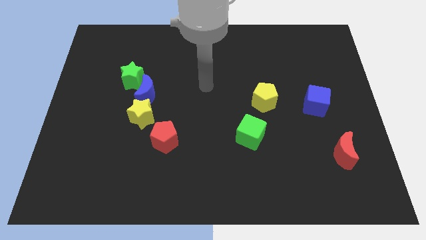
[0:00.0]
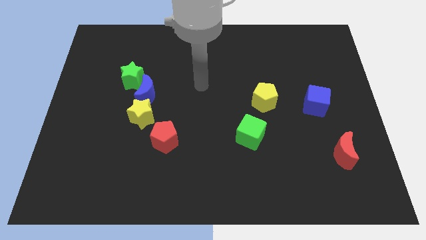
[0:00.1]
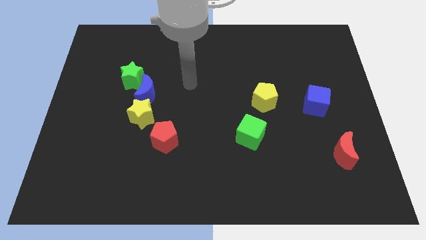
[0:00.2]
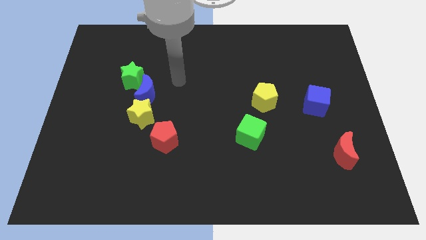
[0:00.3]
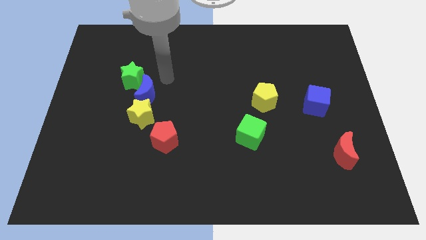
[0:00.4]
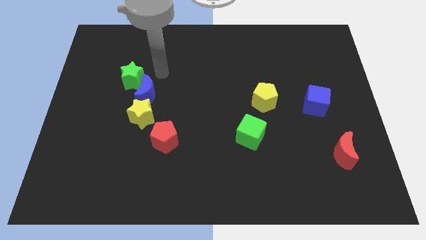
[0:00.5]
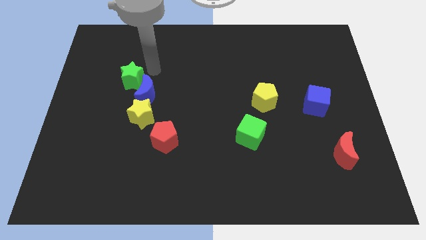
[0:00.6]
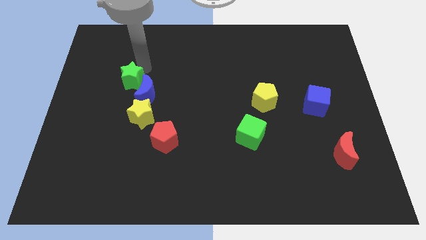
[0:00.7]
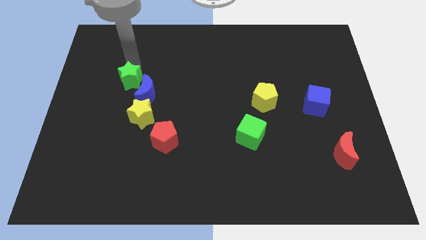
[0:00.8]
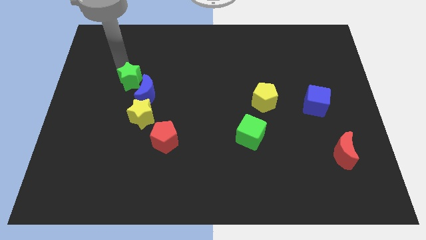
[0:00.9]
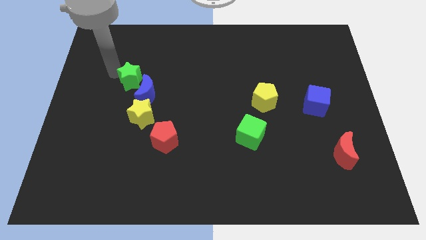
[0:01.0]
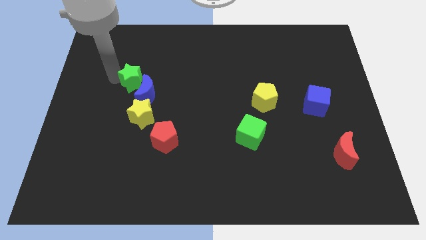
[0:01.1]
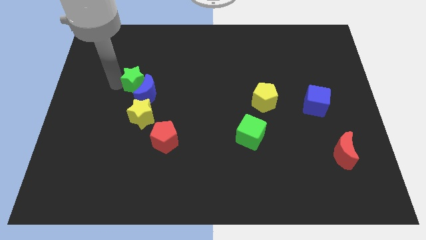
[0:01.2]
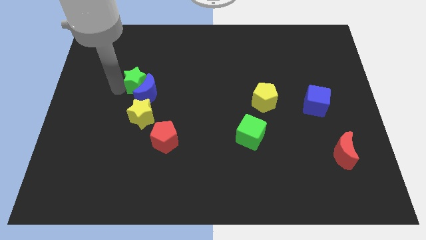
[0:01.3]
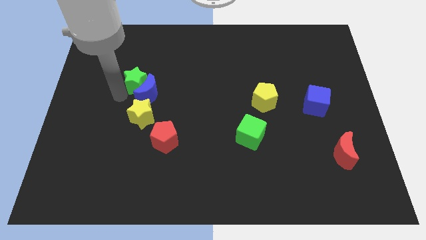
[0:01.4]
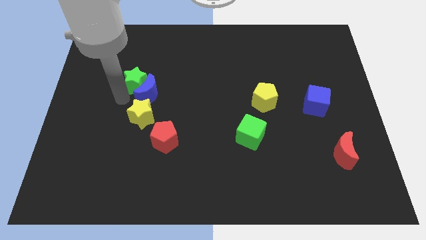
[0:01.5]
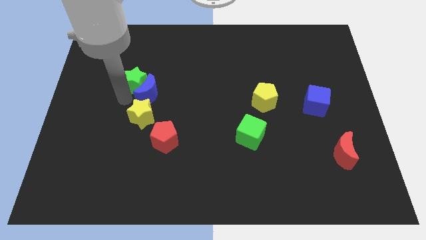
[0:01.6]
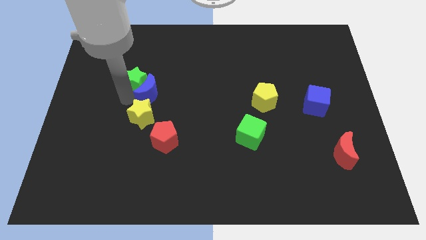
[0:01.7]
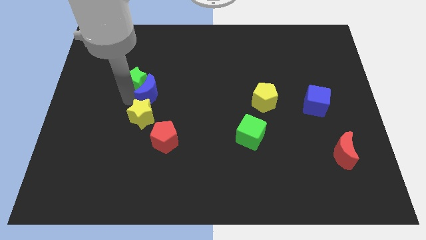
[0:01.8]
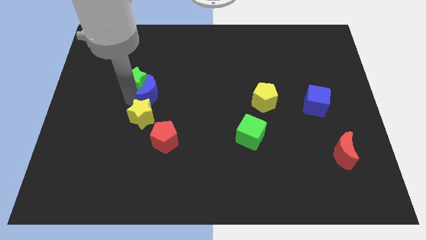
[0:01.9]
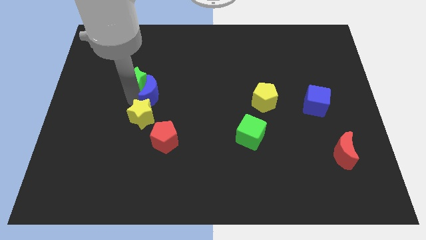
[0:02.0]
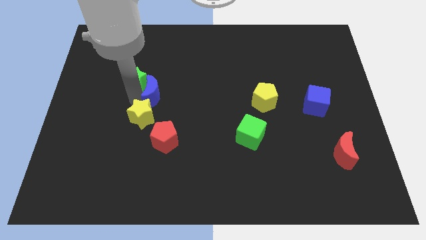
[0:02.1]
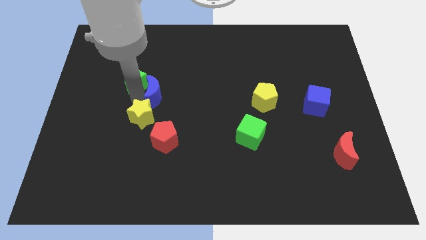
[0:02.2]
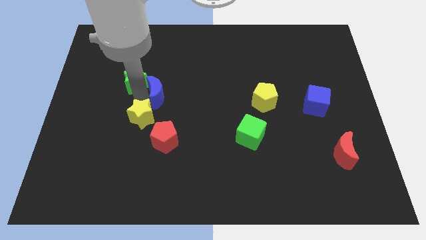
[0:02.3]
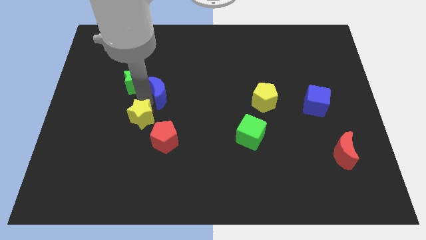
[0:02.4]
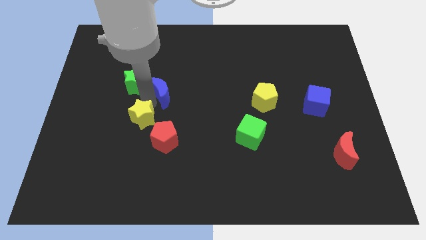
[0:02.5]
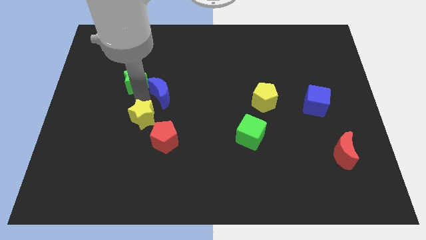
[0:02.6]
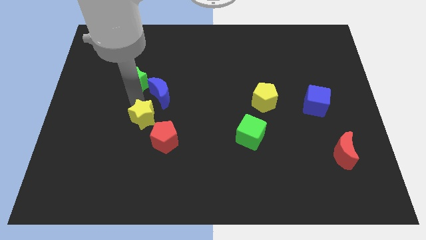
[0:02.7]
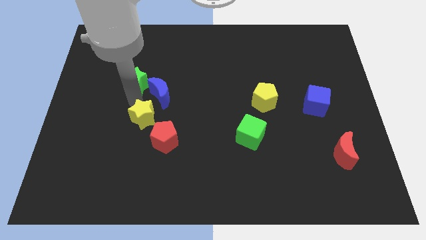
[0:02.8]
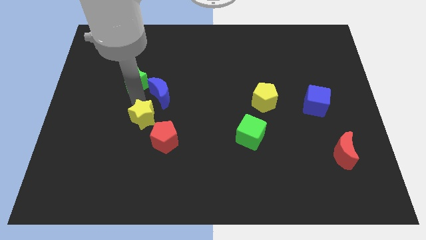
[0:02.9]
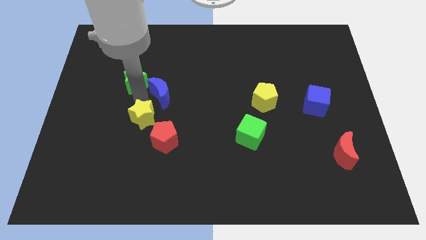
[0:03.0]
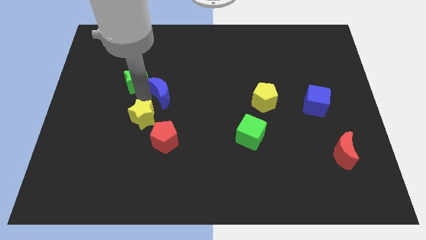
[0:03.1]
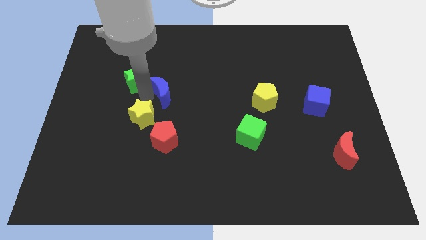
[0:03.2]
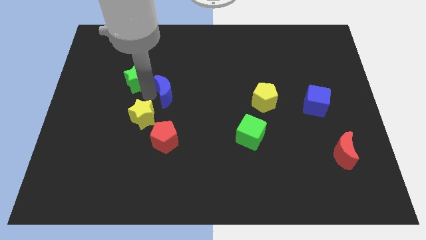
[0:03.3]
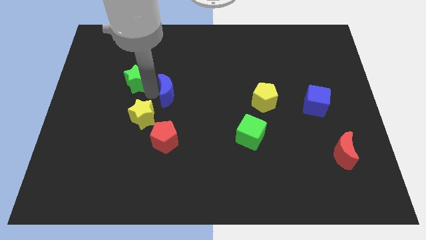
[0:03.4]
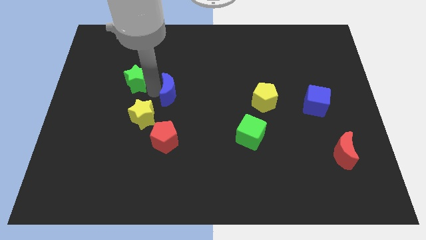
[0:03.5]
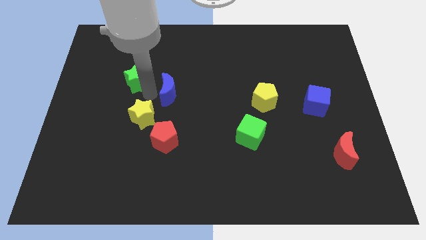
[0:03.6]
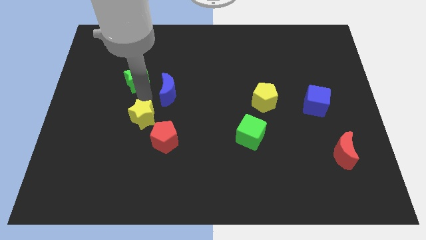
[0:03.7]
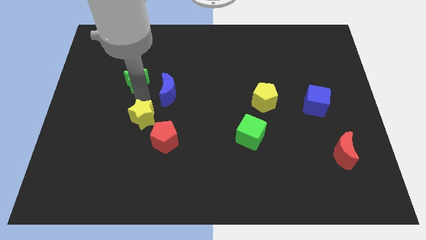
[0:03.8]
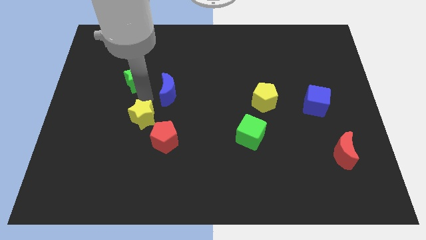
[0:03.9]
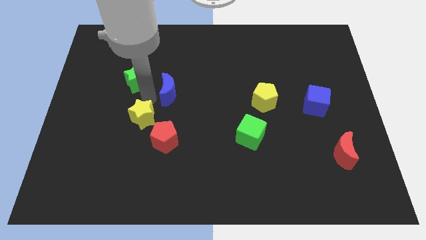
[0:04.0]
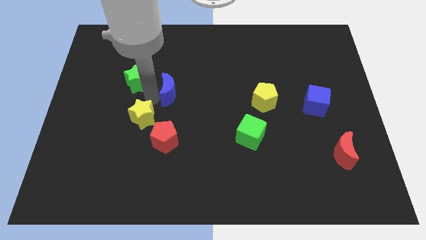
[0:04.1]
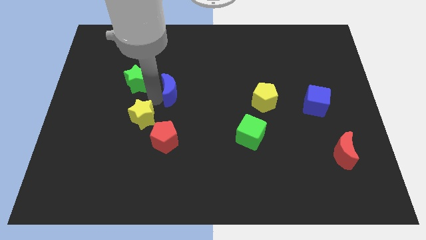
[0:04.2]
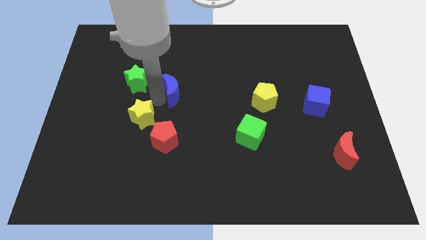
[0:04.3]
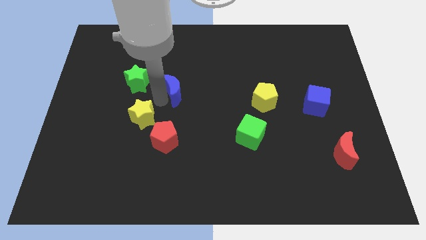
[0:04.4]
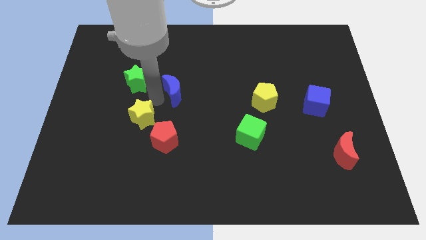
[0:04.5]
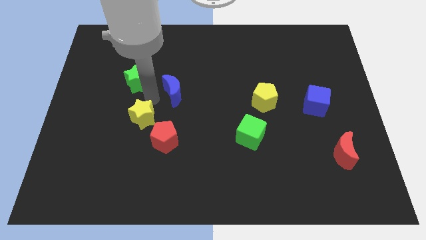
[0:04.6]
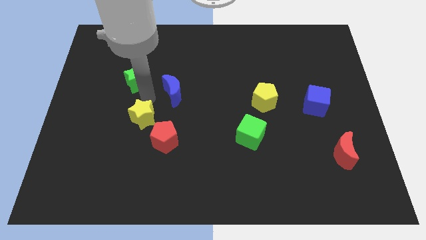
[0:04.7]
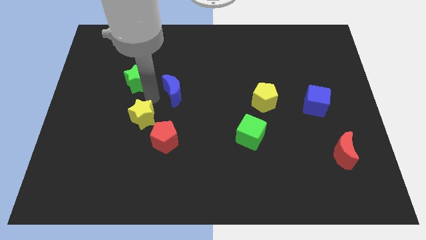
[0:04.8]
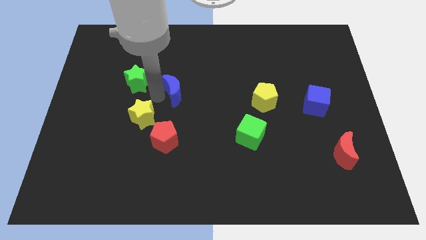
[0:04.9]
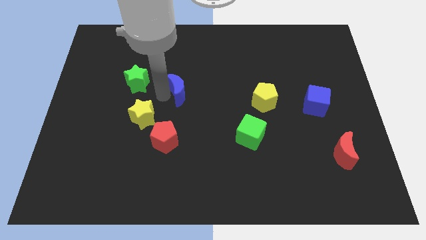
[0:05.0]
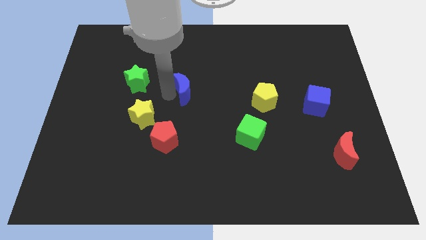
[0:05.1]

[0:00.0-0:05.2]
separate the blue moon from the yellow star and green star

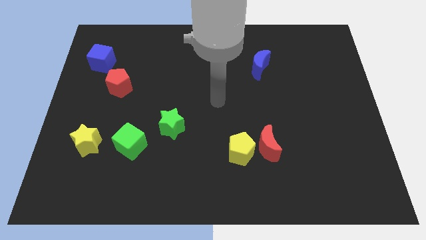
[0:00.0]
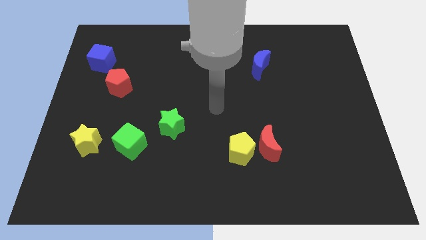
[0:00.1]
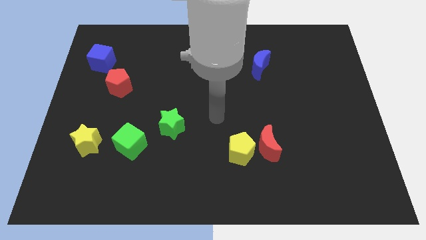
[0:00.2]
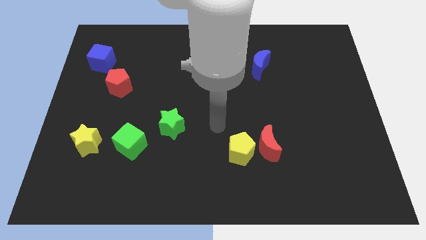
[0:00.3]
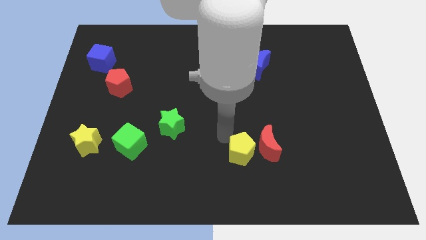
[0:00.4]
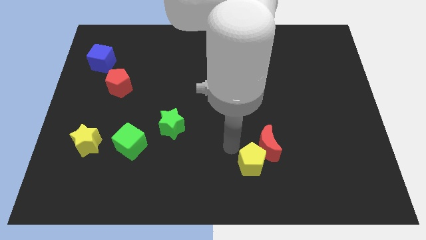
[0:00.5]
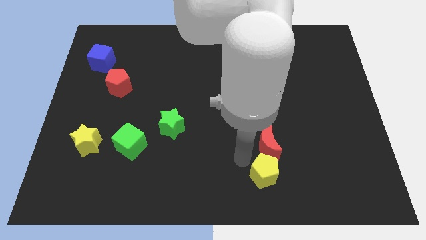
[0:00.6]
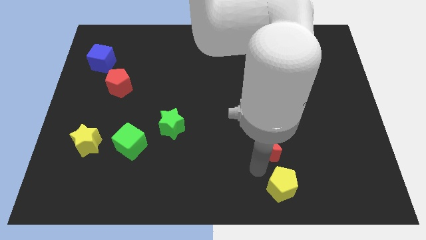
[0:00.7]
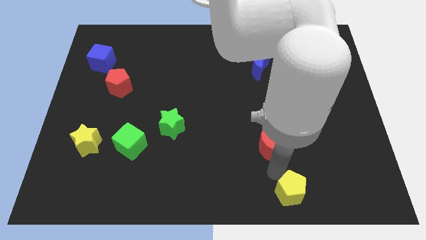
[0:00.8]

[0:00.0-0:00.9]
move the red moon away from the yellow pentagon

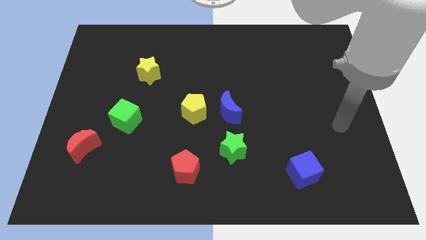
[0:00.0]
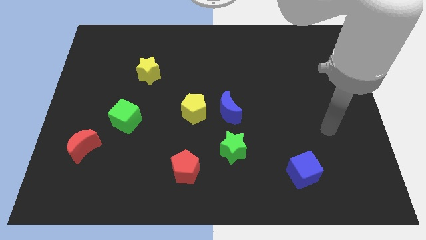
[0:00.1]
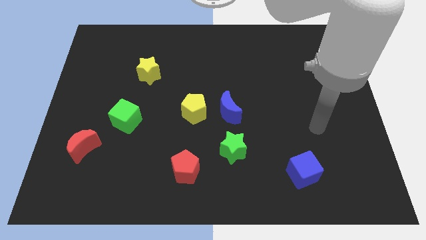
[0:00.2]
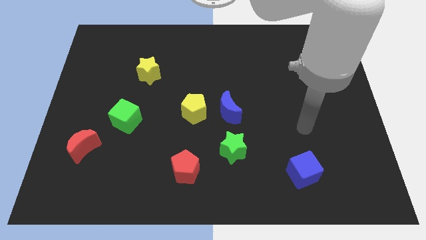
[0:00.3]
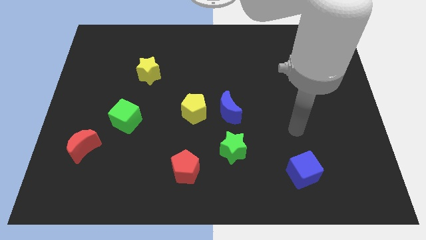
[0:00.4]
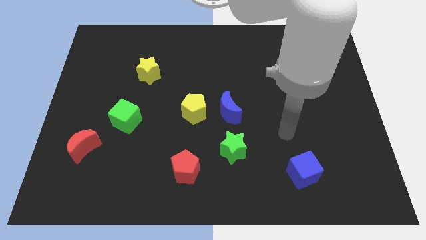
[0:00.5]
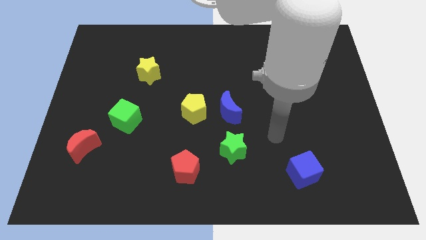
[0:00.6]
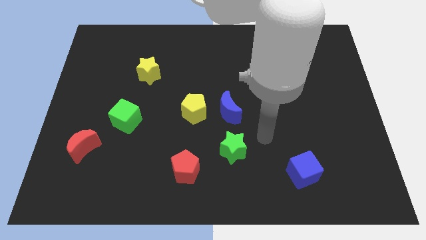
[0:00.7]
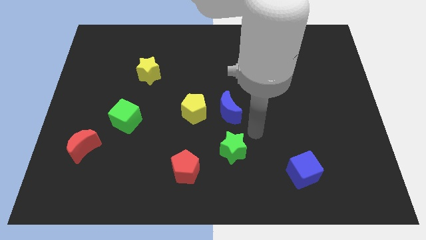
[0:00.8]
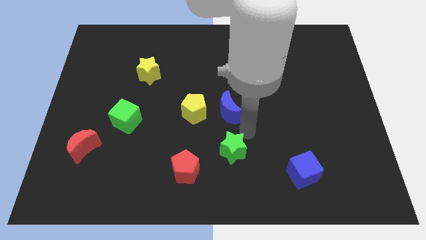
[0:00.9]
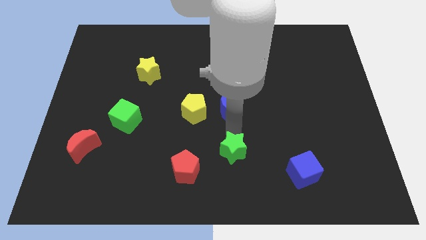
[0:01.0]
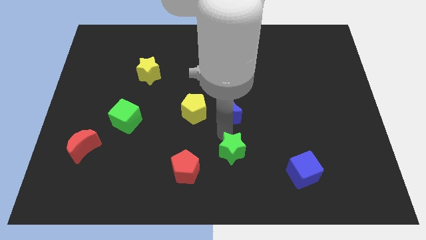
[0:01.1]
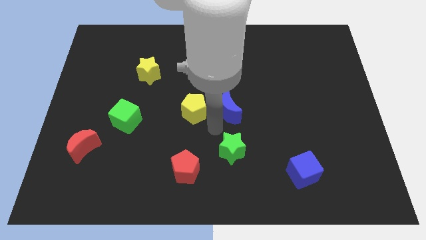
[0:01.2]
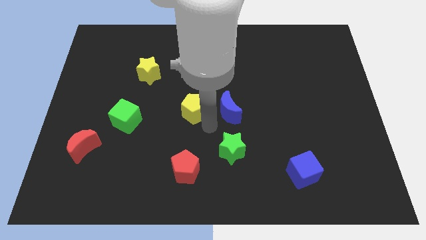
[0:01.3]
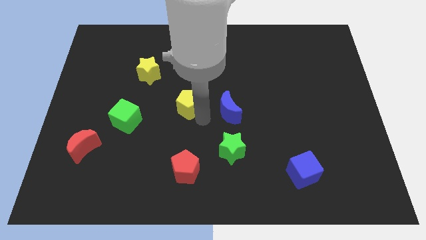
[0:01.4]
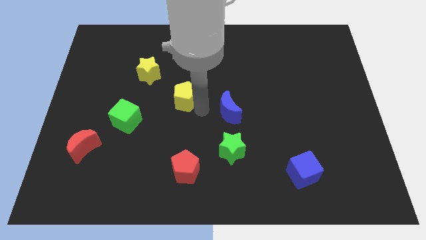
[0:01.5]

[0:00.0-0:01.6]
separate the blue moon from the yellow pentagon

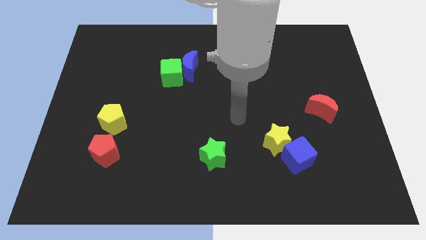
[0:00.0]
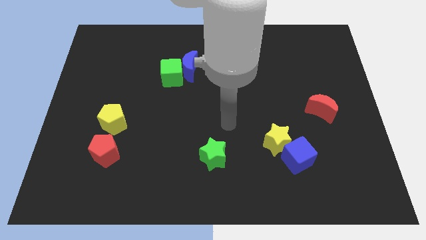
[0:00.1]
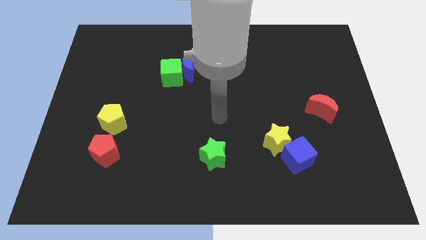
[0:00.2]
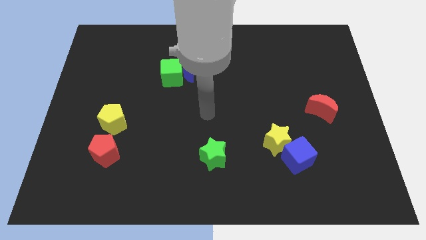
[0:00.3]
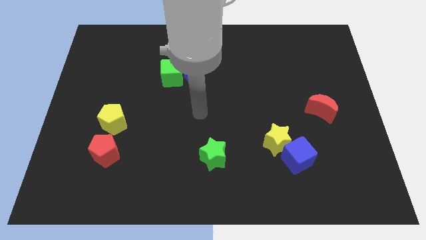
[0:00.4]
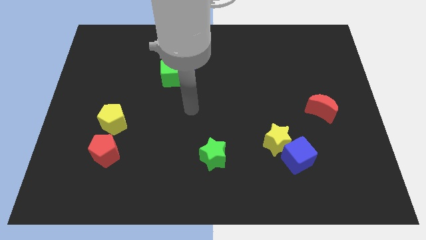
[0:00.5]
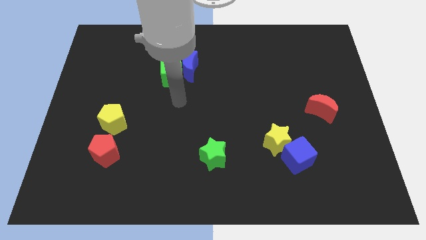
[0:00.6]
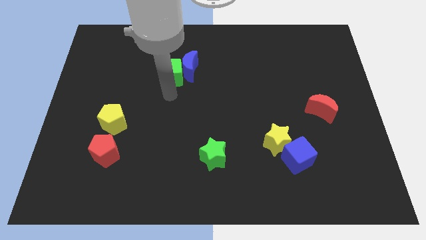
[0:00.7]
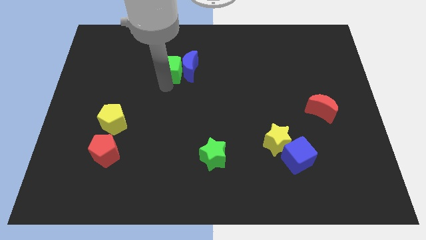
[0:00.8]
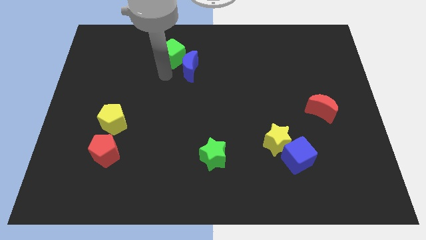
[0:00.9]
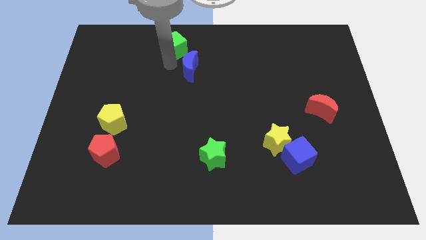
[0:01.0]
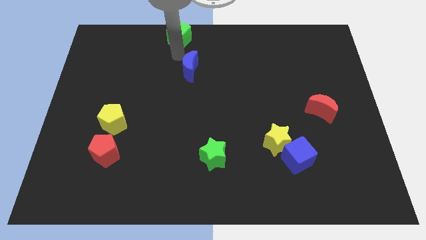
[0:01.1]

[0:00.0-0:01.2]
move the blue moon away from the green cube

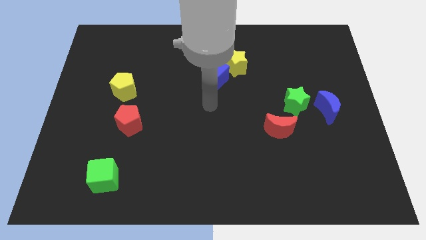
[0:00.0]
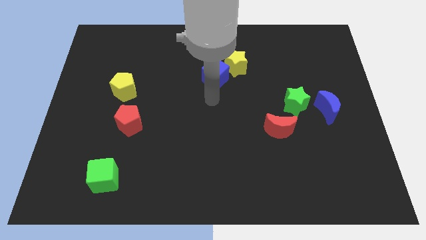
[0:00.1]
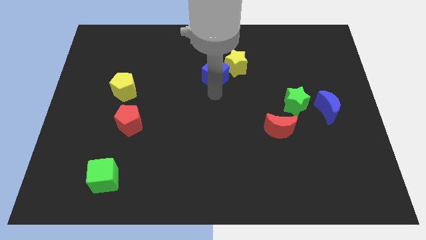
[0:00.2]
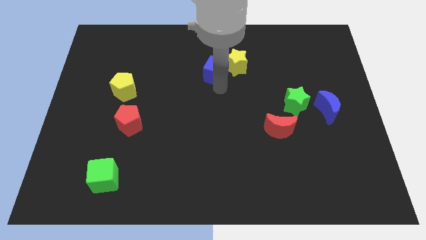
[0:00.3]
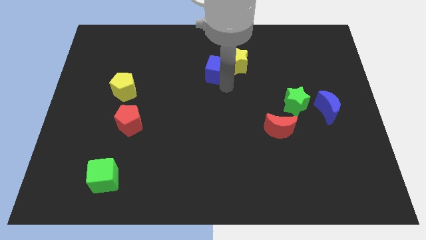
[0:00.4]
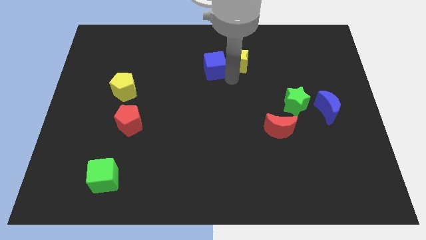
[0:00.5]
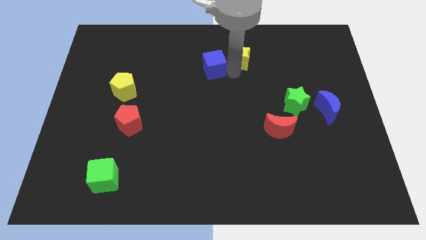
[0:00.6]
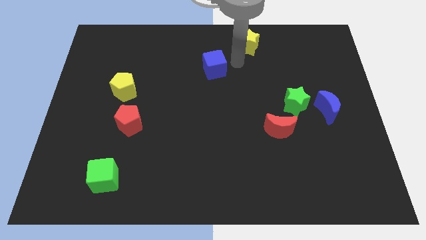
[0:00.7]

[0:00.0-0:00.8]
pull the blue cube apart from the yellow star
